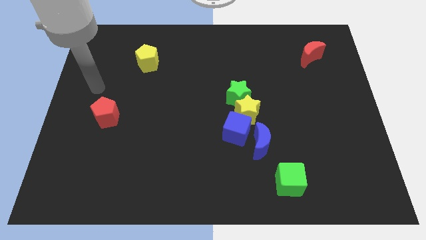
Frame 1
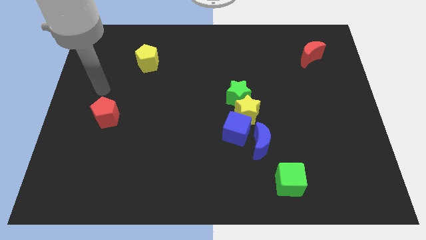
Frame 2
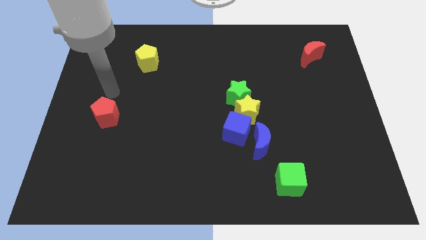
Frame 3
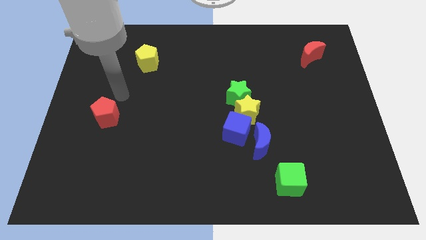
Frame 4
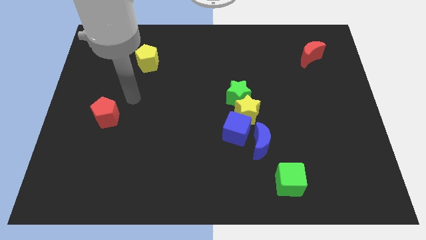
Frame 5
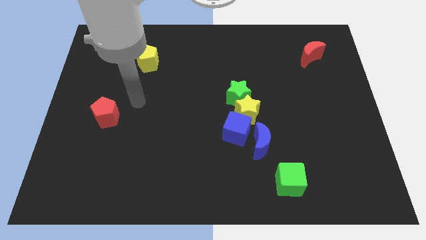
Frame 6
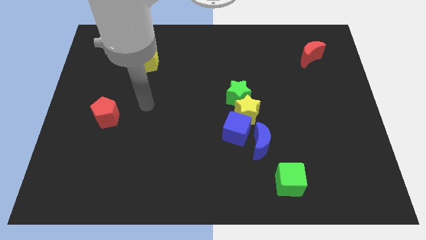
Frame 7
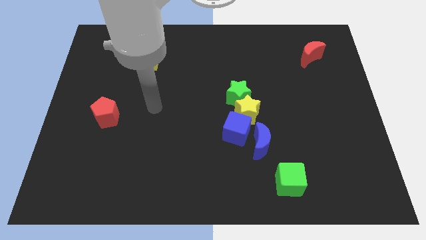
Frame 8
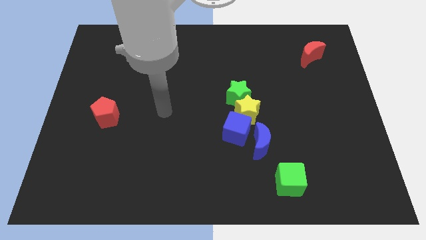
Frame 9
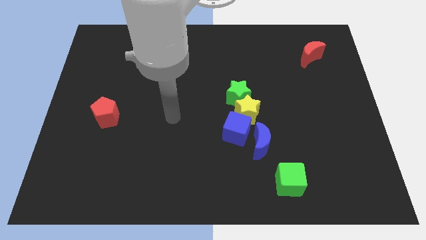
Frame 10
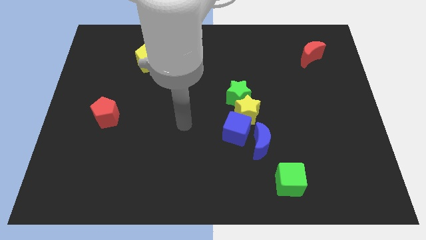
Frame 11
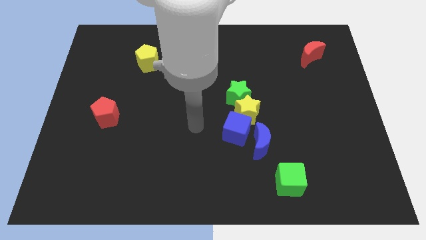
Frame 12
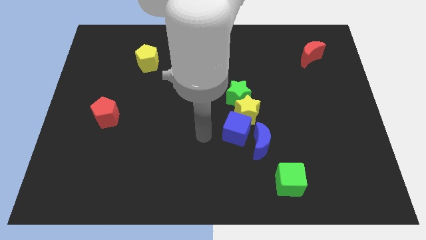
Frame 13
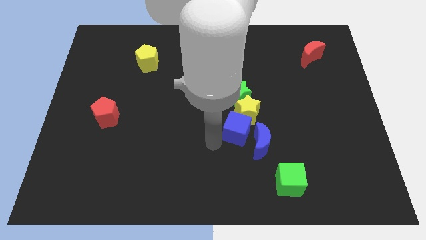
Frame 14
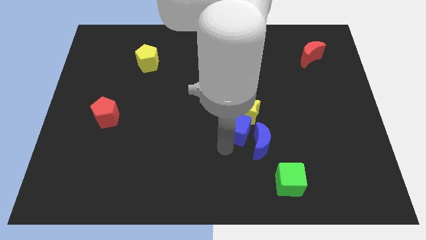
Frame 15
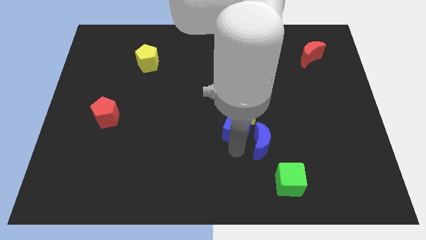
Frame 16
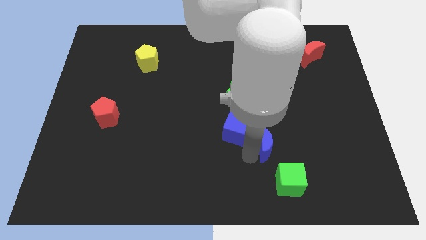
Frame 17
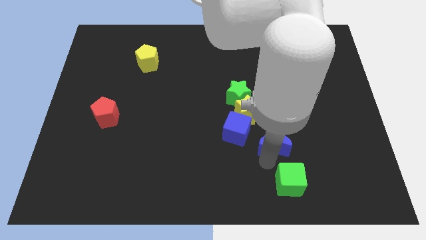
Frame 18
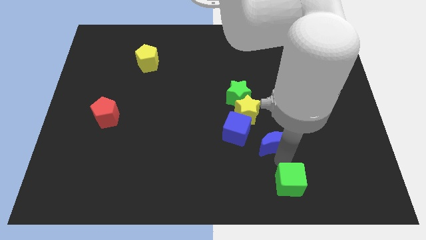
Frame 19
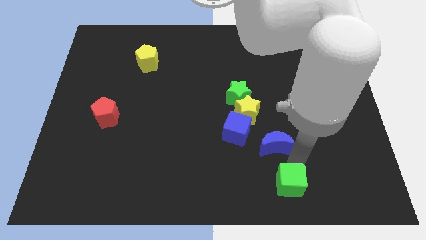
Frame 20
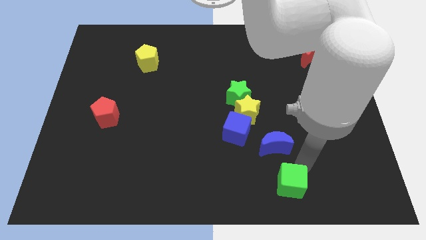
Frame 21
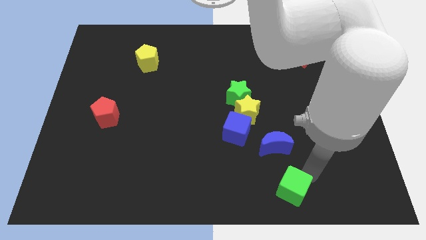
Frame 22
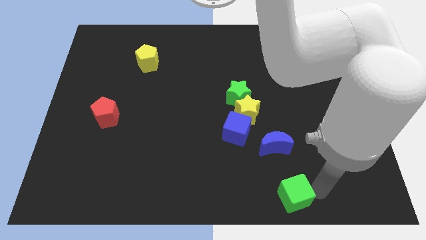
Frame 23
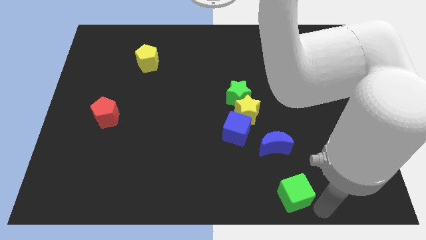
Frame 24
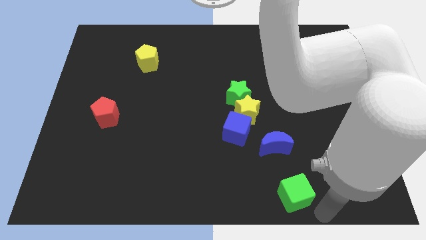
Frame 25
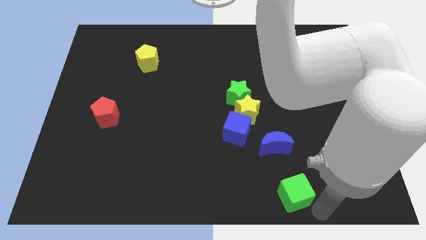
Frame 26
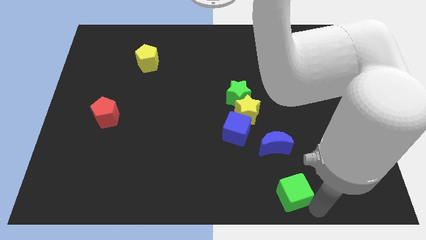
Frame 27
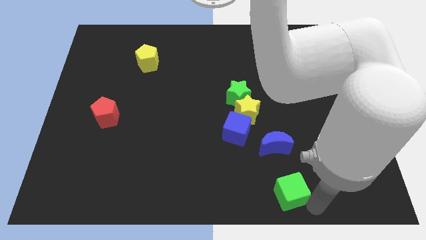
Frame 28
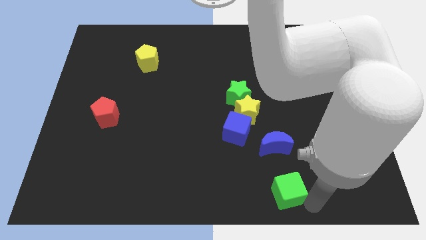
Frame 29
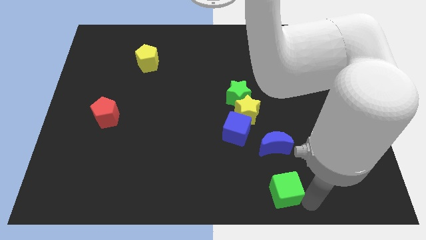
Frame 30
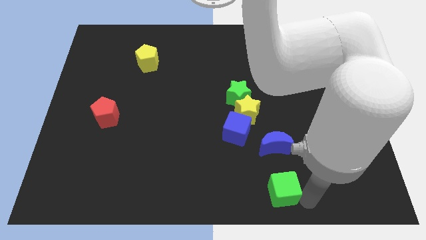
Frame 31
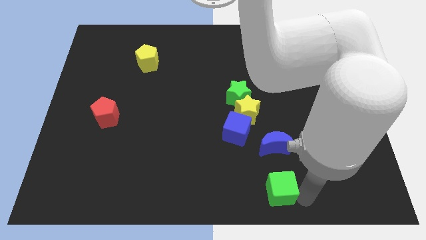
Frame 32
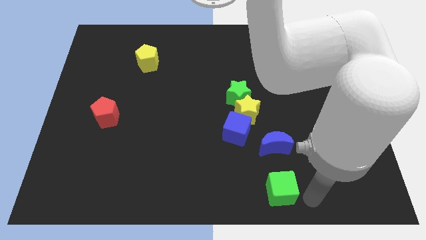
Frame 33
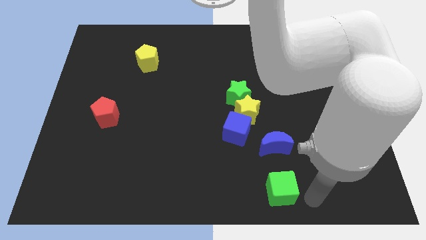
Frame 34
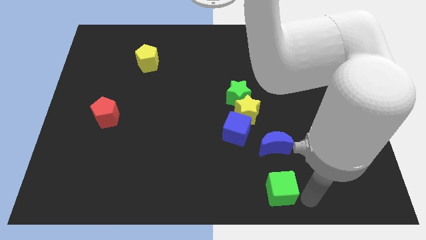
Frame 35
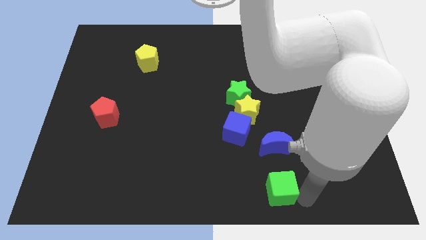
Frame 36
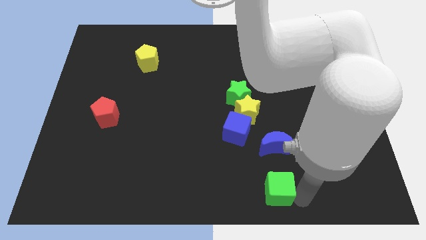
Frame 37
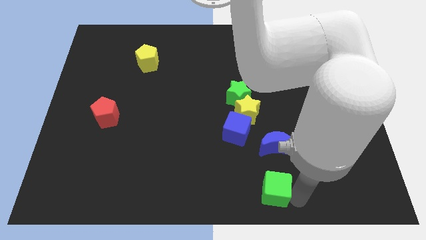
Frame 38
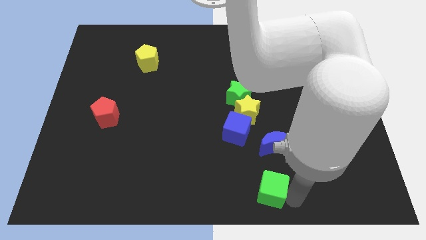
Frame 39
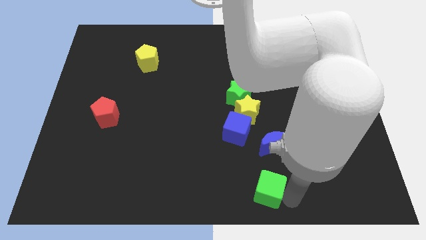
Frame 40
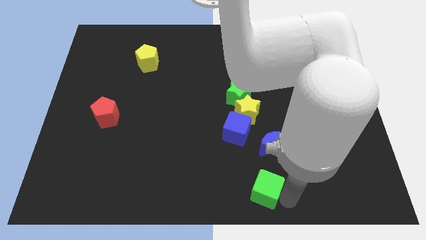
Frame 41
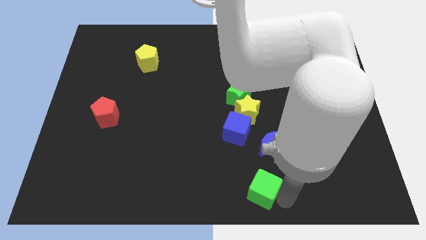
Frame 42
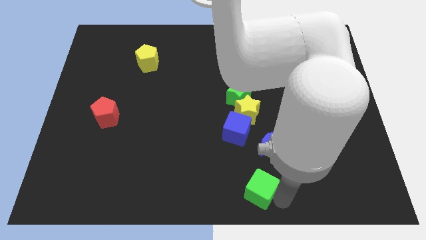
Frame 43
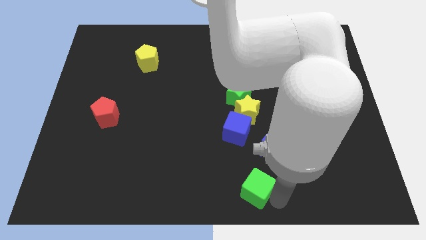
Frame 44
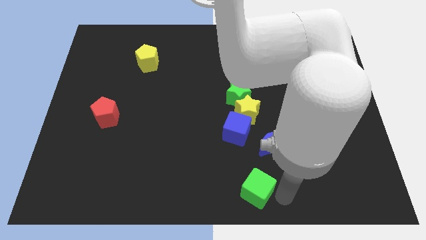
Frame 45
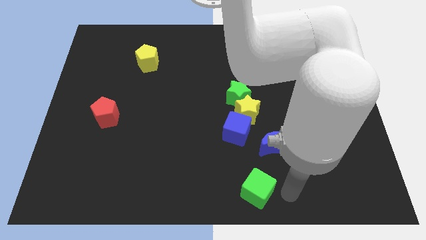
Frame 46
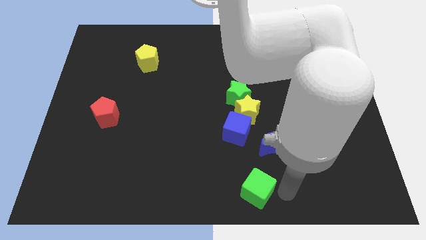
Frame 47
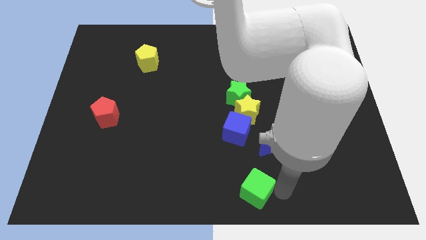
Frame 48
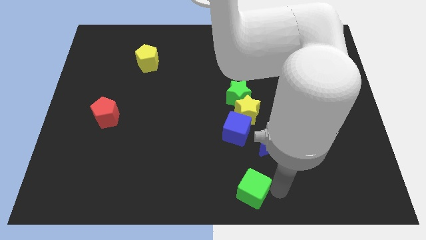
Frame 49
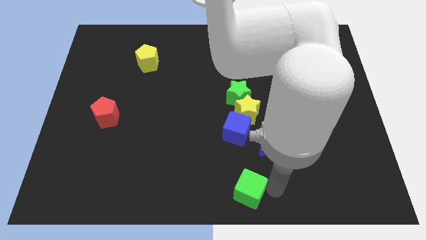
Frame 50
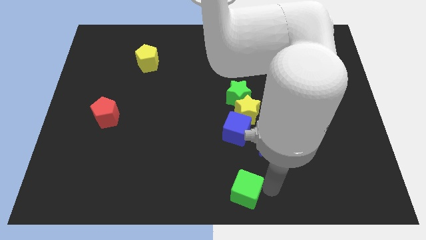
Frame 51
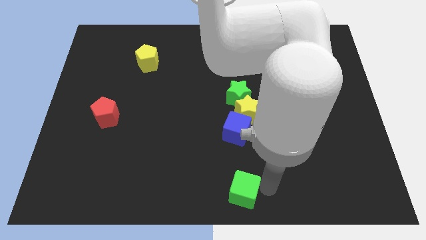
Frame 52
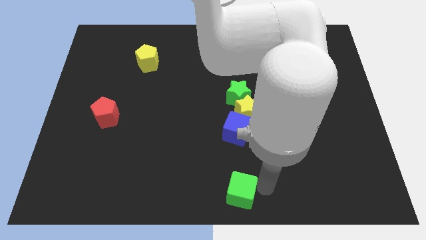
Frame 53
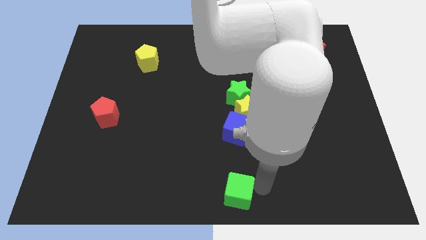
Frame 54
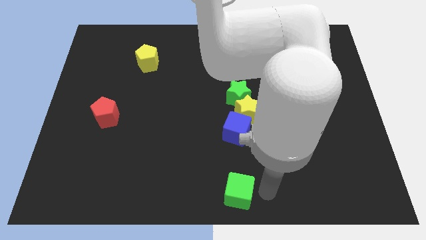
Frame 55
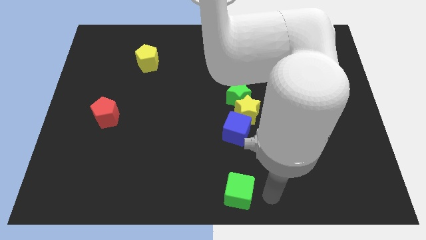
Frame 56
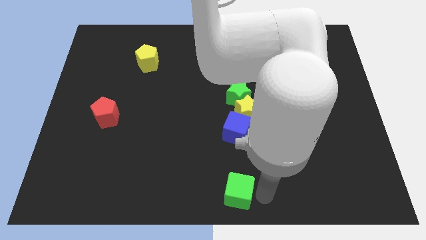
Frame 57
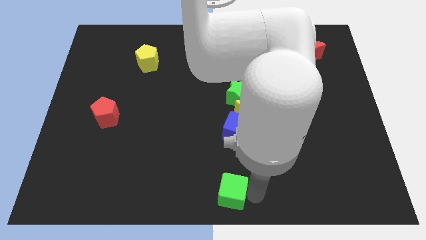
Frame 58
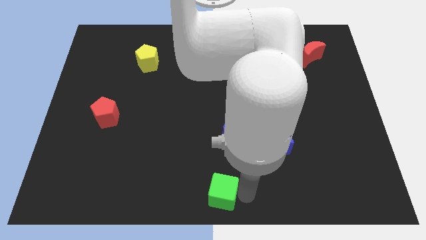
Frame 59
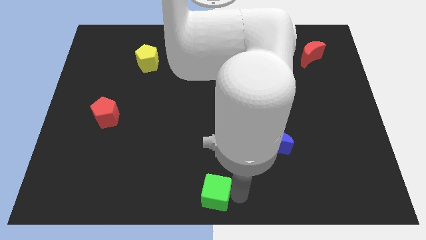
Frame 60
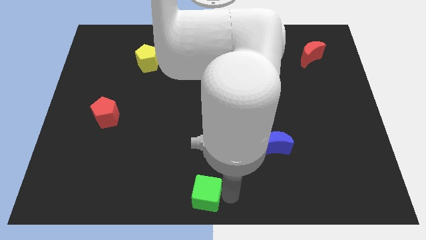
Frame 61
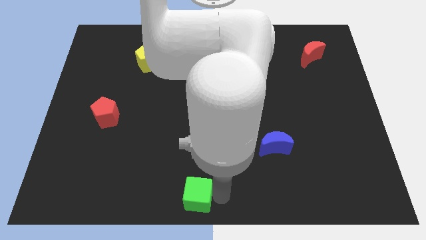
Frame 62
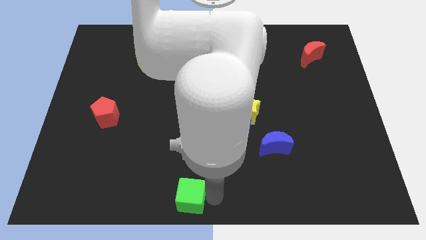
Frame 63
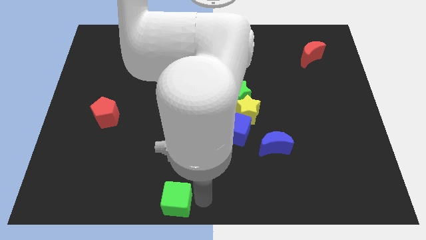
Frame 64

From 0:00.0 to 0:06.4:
push the green cube left

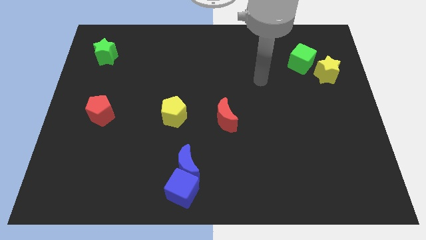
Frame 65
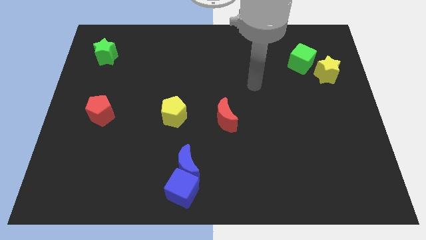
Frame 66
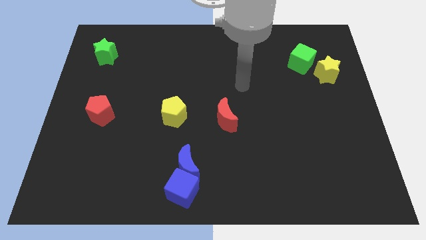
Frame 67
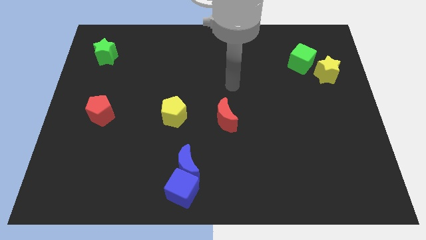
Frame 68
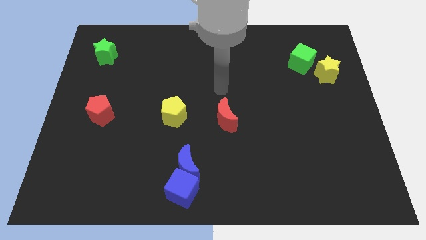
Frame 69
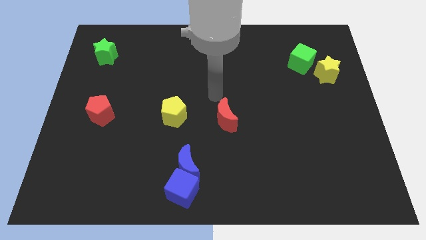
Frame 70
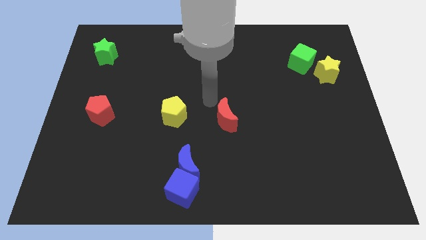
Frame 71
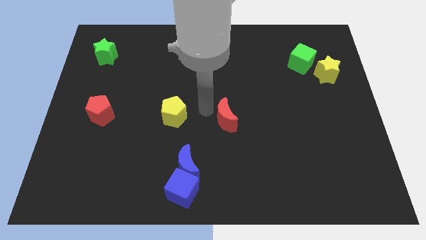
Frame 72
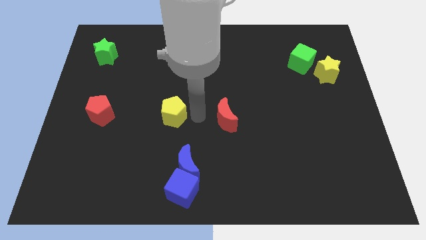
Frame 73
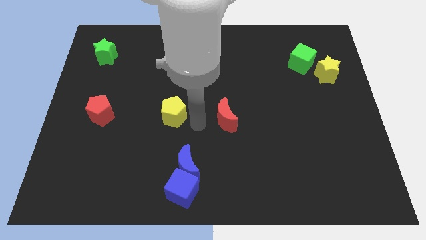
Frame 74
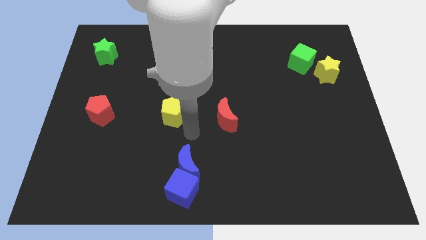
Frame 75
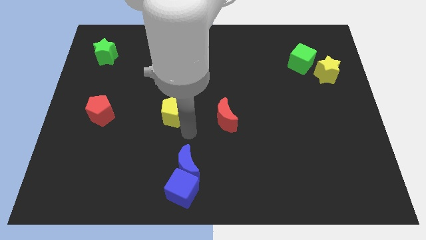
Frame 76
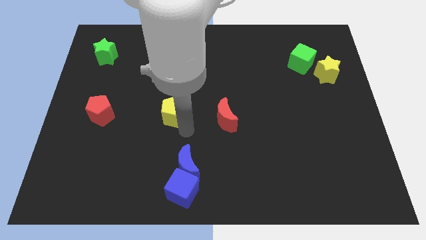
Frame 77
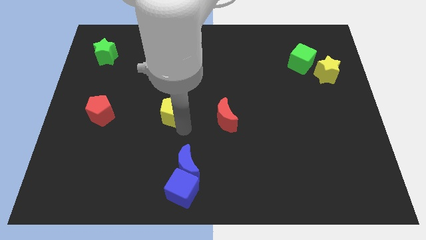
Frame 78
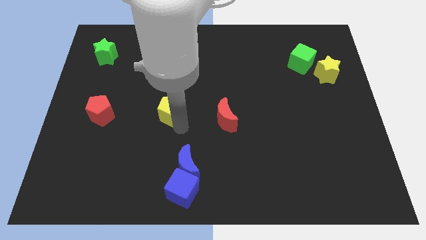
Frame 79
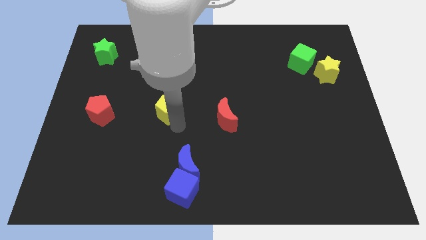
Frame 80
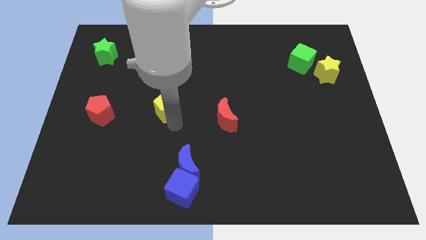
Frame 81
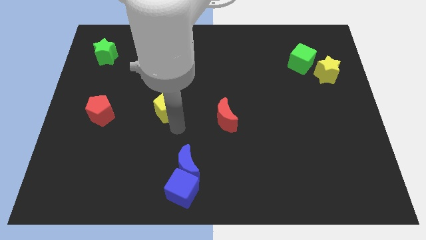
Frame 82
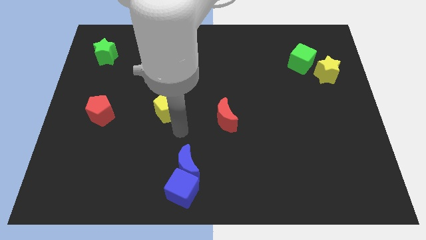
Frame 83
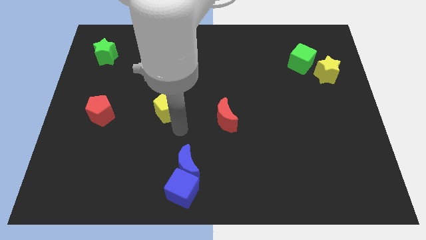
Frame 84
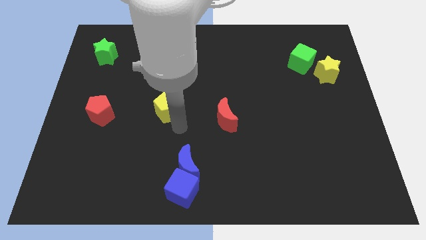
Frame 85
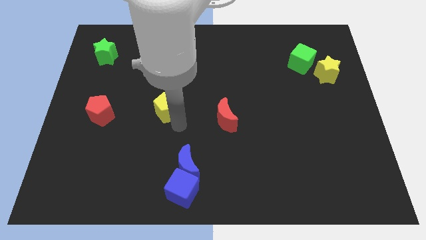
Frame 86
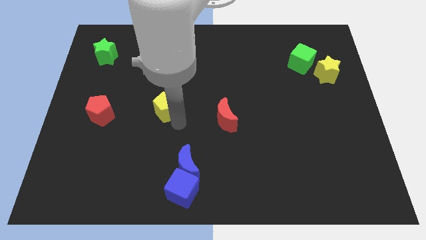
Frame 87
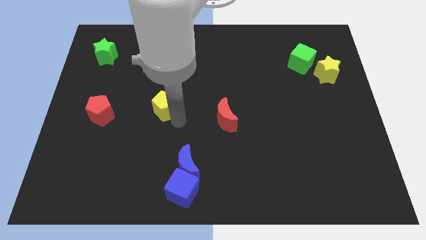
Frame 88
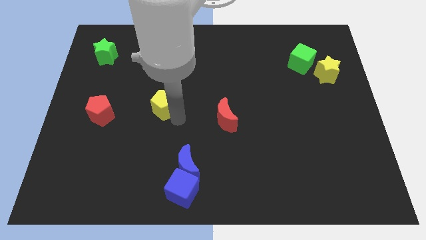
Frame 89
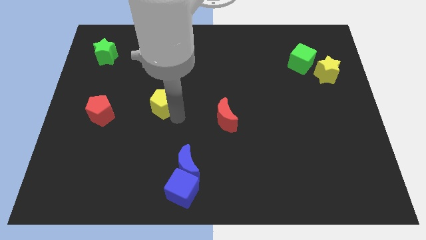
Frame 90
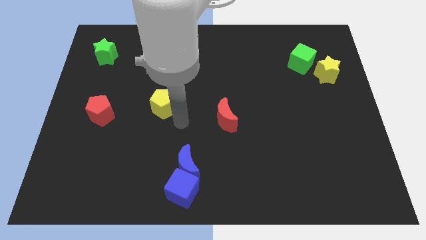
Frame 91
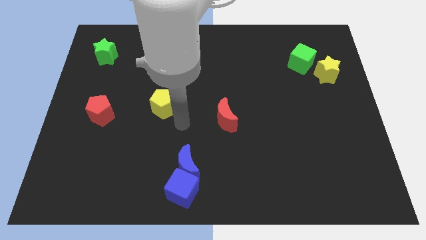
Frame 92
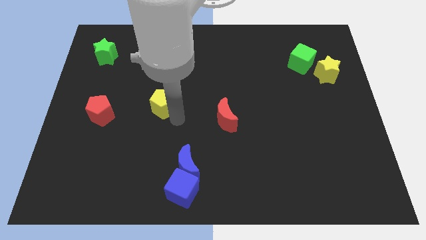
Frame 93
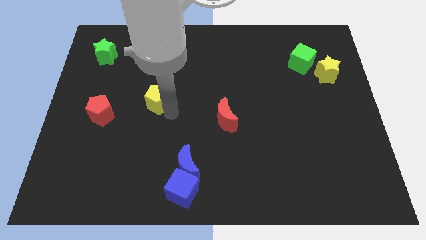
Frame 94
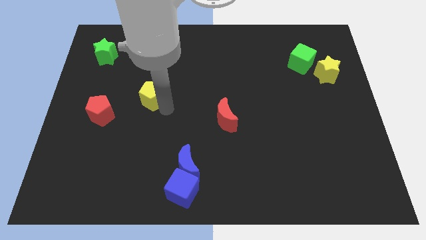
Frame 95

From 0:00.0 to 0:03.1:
slide the yellow pentagon upwards and to the left somewhat
